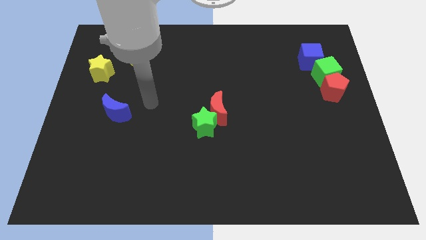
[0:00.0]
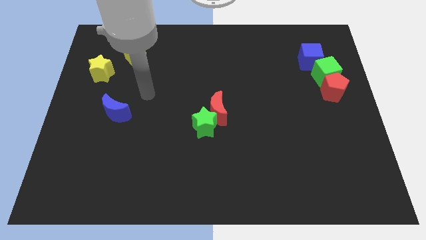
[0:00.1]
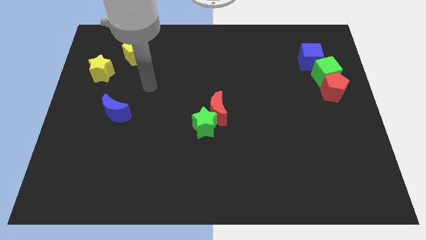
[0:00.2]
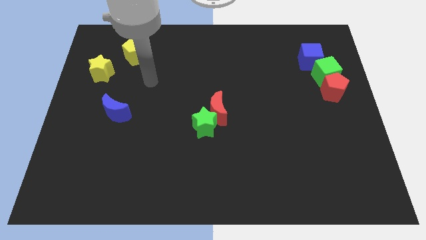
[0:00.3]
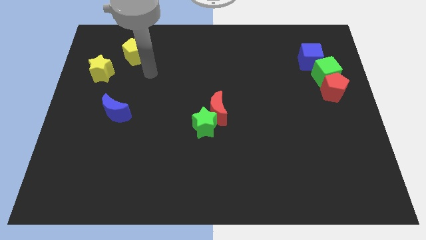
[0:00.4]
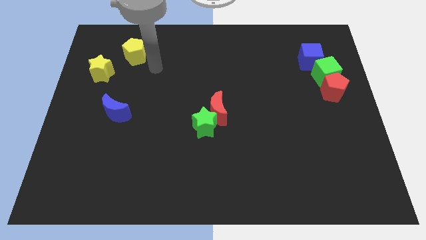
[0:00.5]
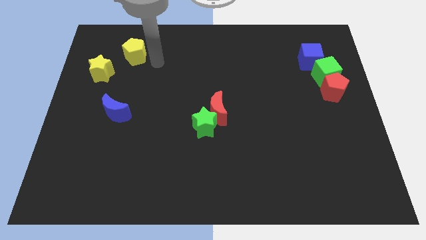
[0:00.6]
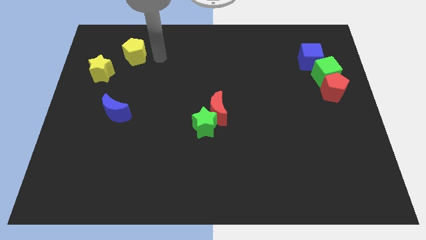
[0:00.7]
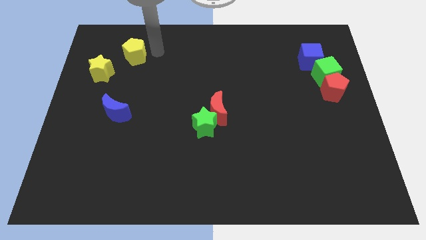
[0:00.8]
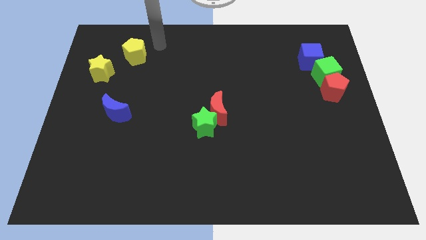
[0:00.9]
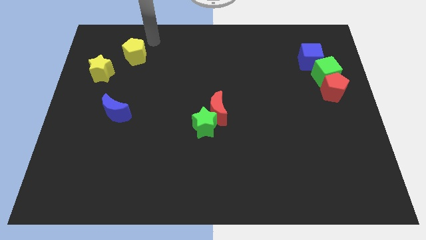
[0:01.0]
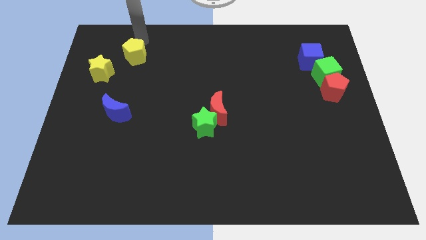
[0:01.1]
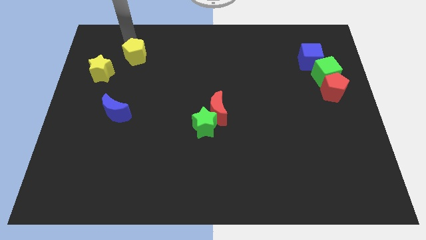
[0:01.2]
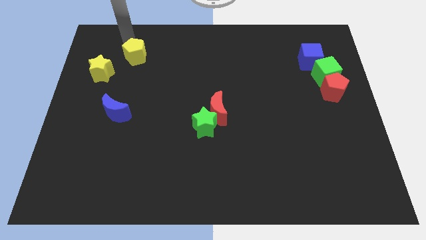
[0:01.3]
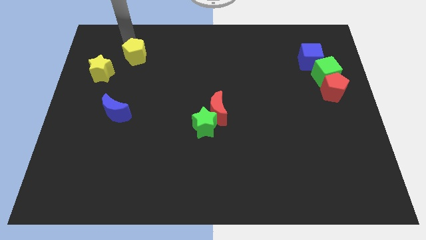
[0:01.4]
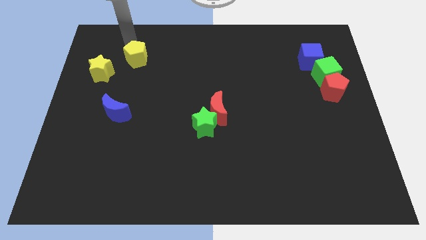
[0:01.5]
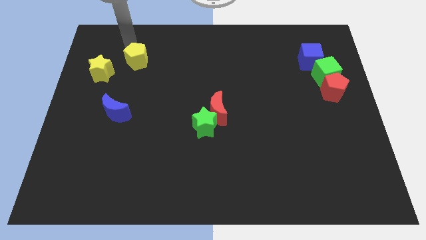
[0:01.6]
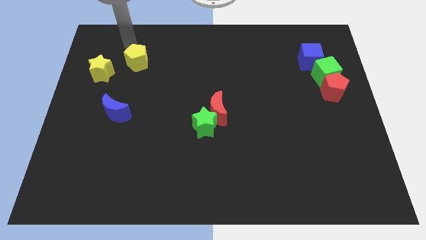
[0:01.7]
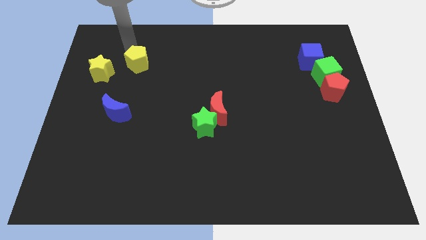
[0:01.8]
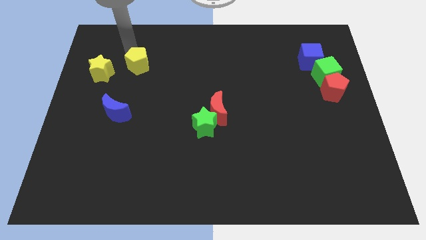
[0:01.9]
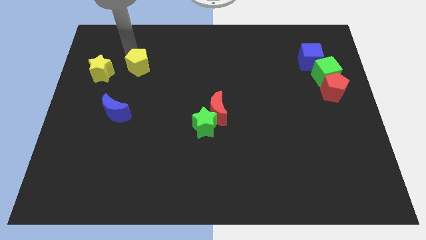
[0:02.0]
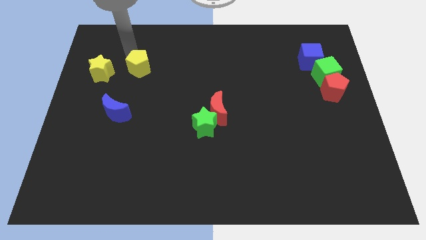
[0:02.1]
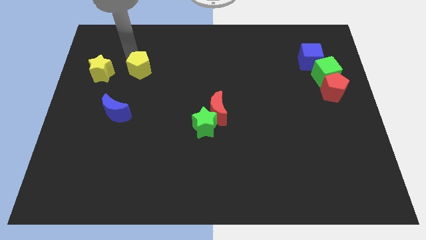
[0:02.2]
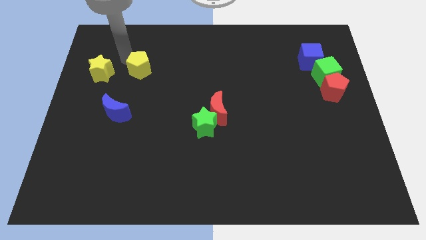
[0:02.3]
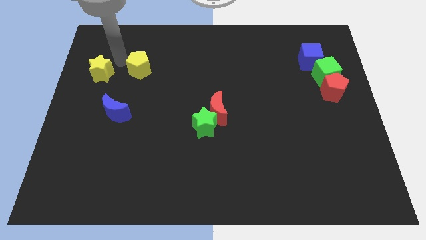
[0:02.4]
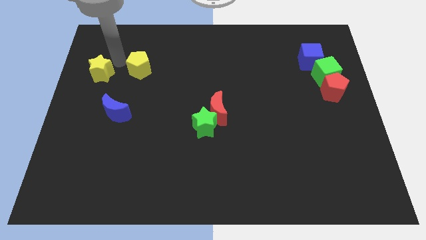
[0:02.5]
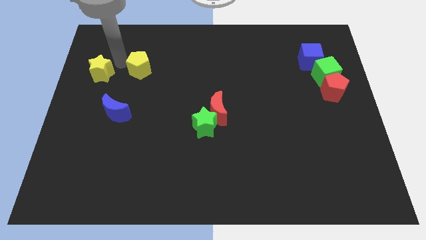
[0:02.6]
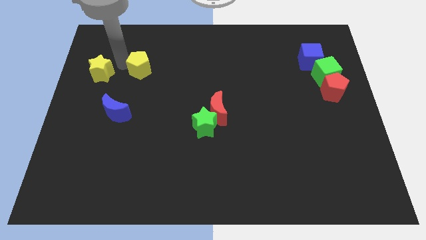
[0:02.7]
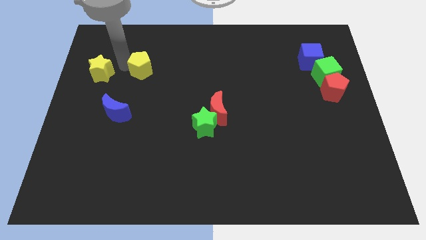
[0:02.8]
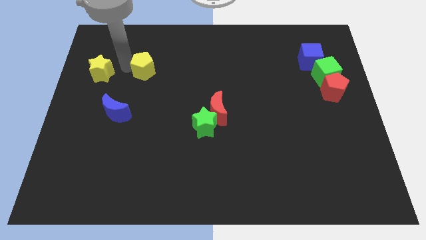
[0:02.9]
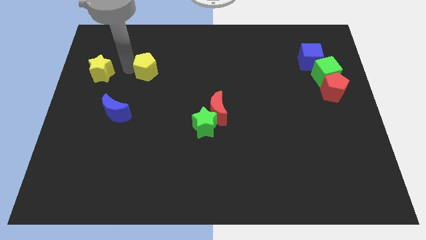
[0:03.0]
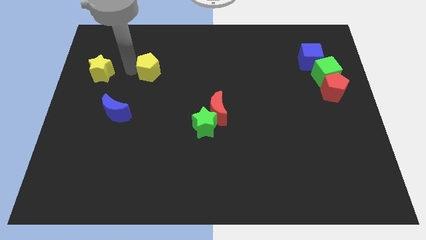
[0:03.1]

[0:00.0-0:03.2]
move the yellow pentagon diagonally down and right a little bit

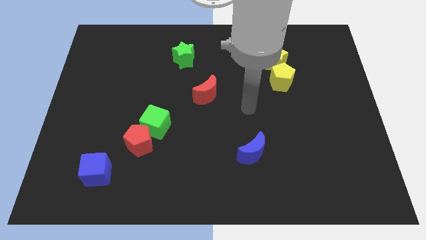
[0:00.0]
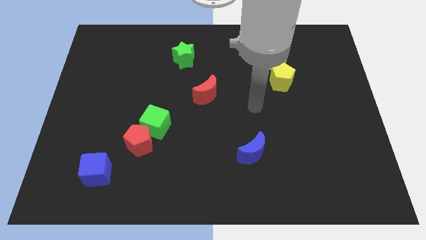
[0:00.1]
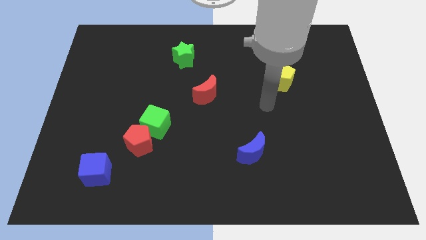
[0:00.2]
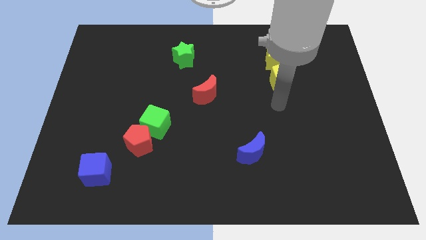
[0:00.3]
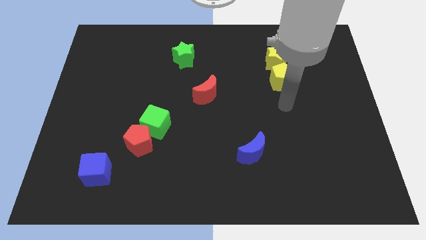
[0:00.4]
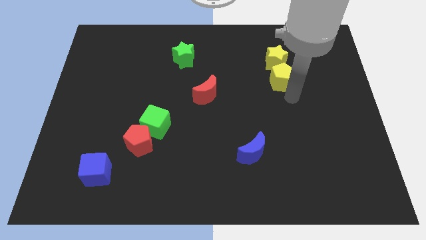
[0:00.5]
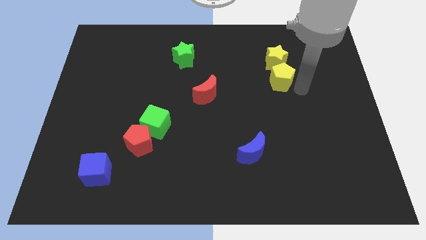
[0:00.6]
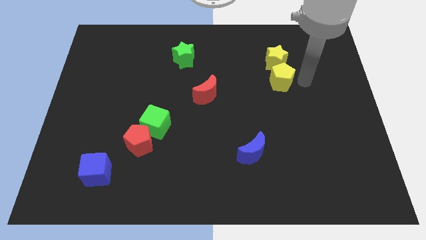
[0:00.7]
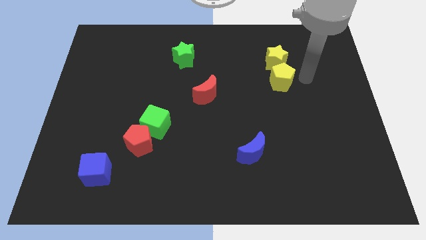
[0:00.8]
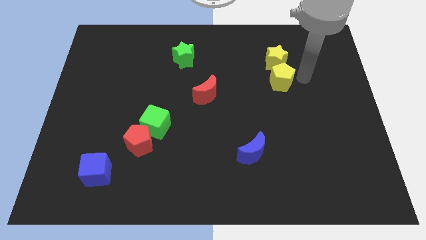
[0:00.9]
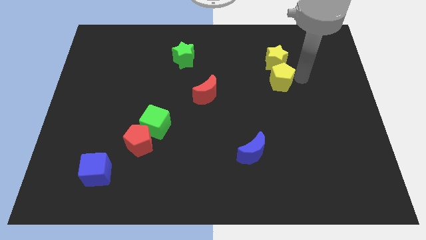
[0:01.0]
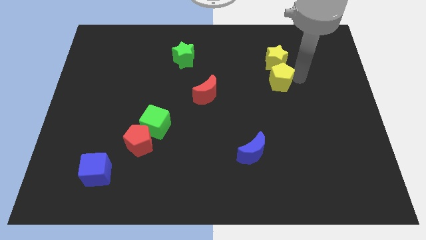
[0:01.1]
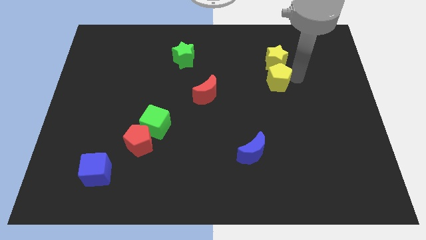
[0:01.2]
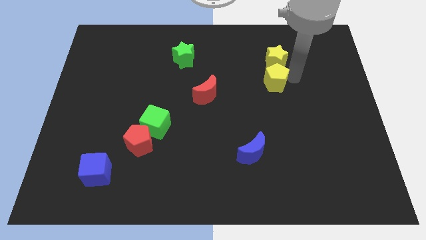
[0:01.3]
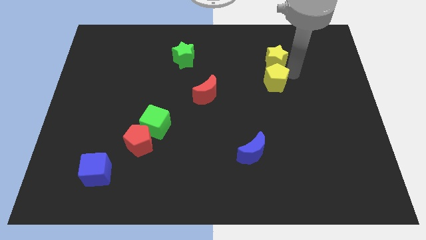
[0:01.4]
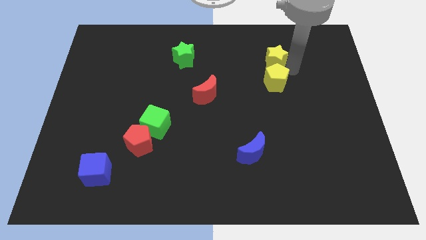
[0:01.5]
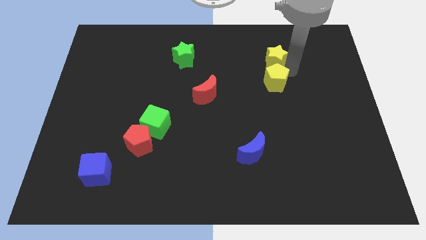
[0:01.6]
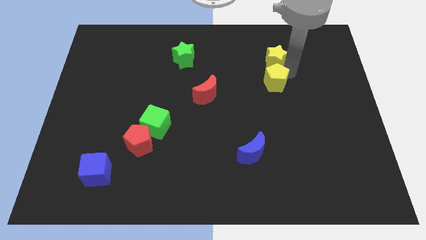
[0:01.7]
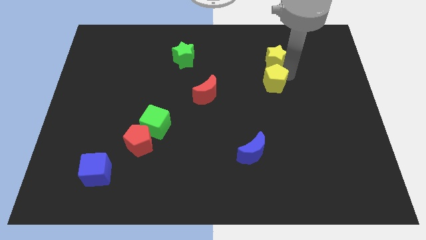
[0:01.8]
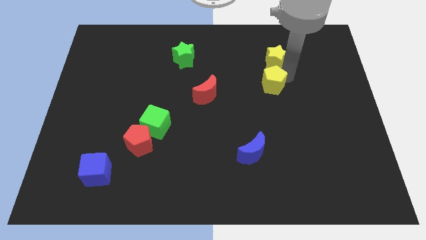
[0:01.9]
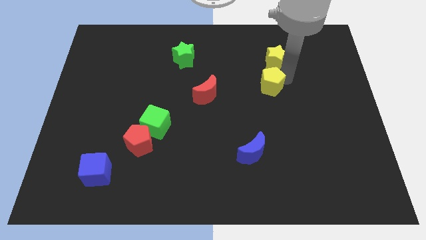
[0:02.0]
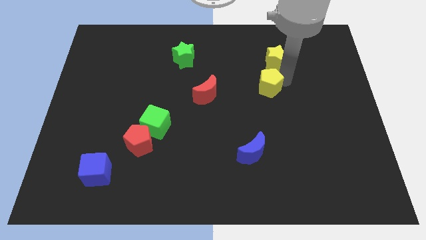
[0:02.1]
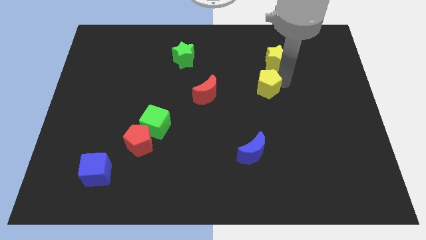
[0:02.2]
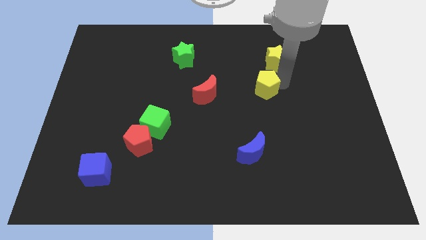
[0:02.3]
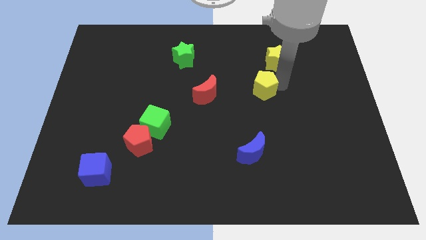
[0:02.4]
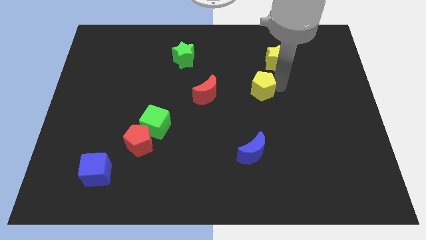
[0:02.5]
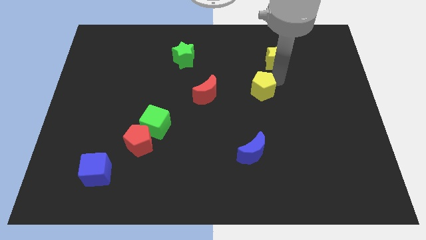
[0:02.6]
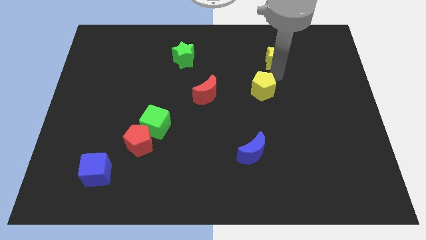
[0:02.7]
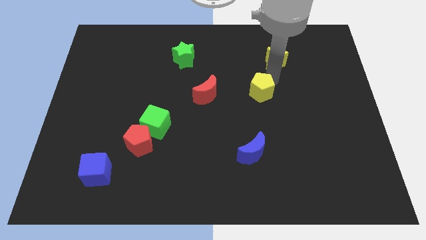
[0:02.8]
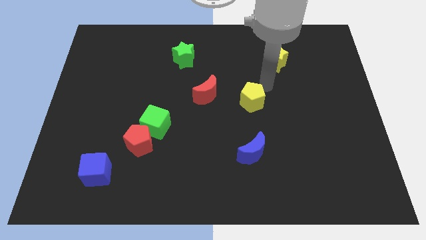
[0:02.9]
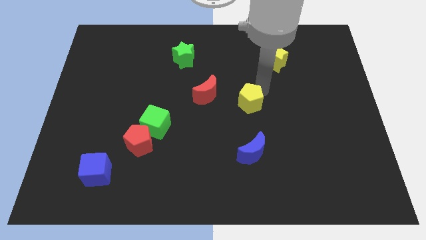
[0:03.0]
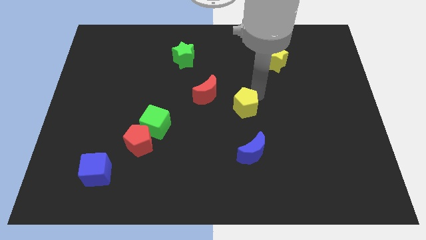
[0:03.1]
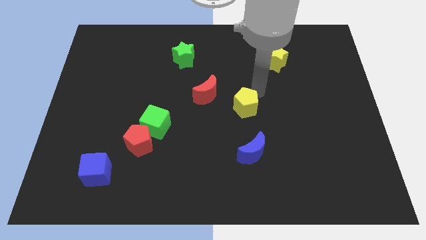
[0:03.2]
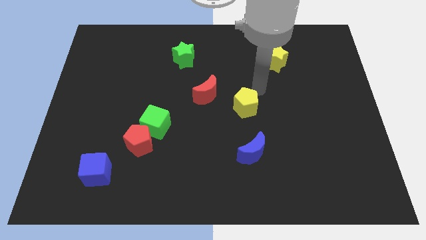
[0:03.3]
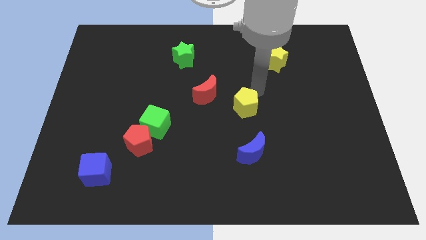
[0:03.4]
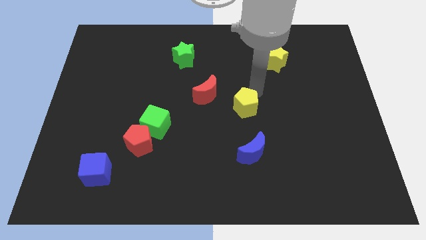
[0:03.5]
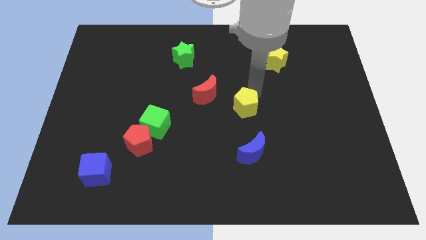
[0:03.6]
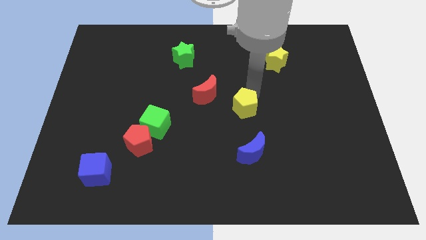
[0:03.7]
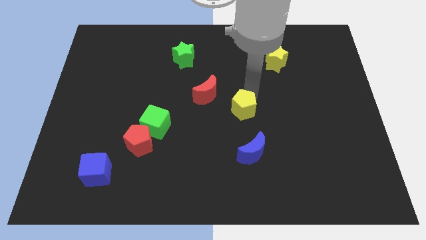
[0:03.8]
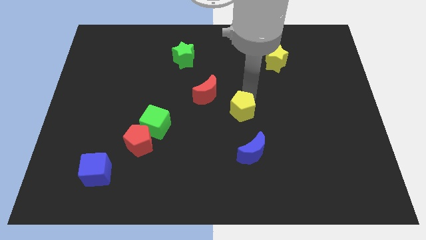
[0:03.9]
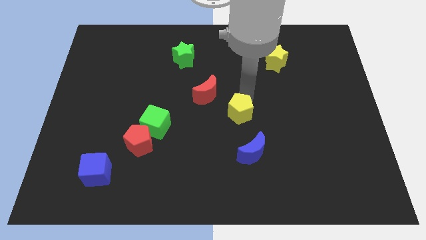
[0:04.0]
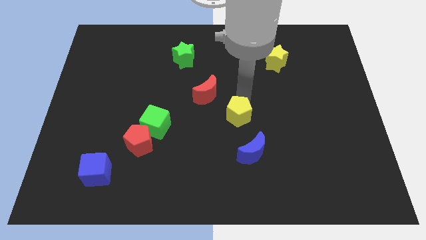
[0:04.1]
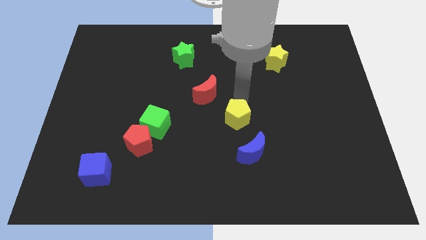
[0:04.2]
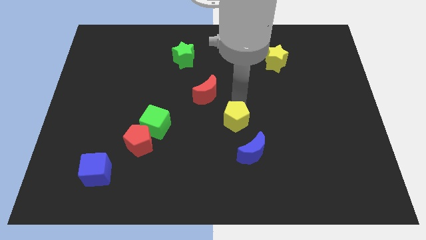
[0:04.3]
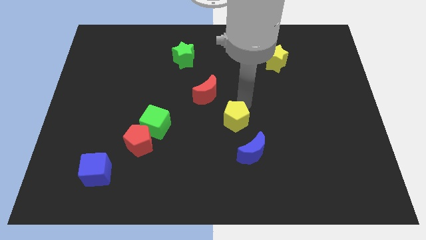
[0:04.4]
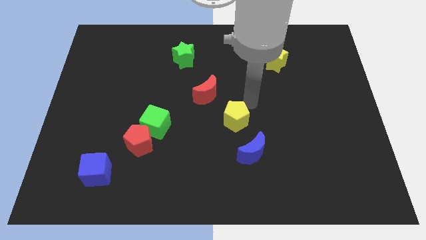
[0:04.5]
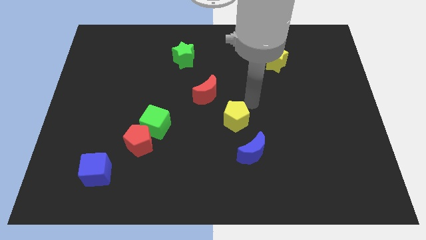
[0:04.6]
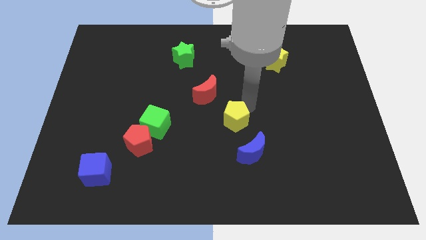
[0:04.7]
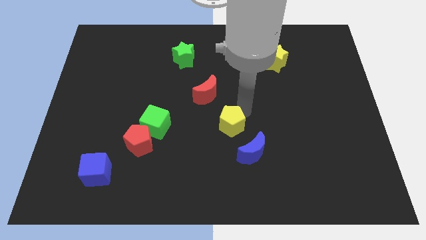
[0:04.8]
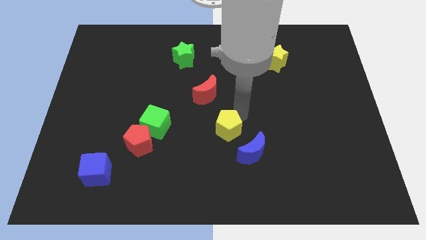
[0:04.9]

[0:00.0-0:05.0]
push the yellow pentagon downwards and then left
